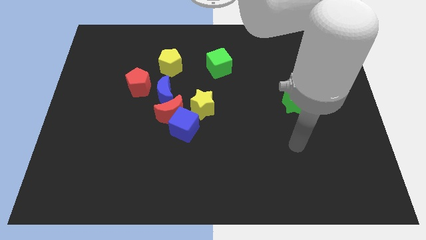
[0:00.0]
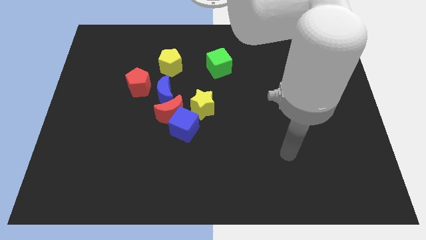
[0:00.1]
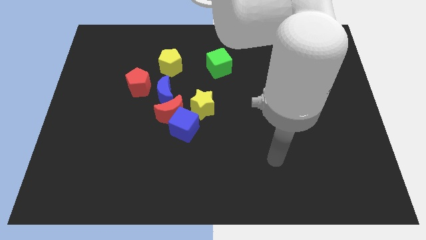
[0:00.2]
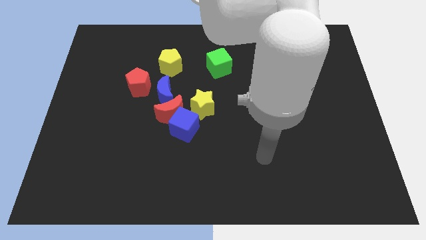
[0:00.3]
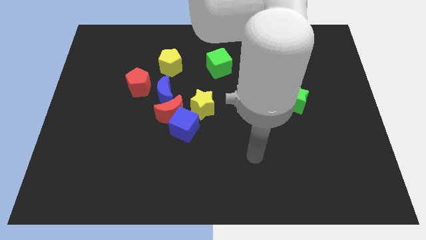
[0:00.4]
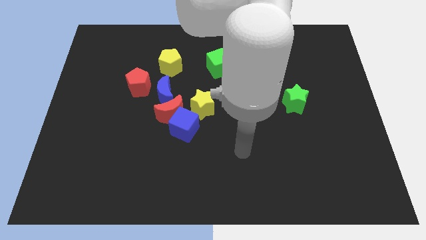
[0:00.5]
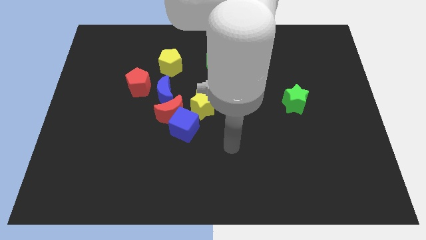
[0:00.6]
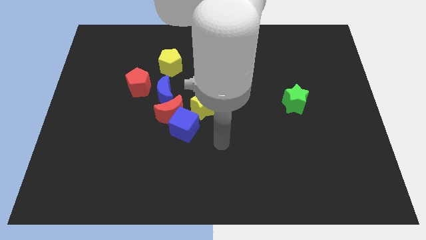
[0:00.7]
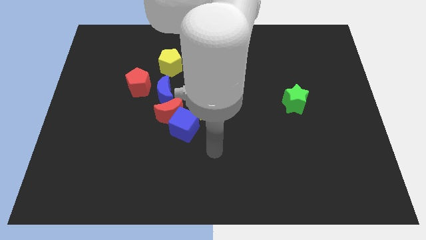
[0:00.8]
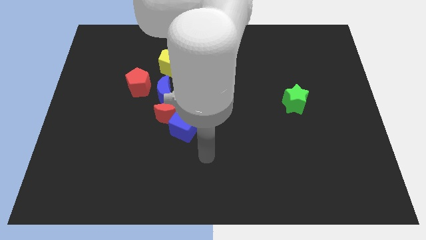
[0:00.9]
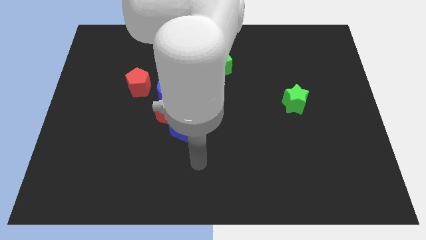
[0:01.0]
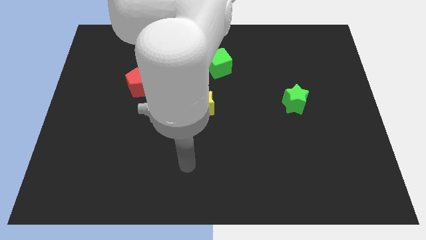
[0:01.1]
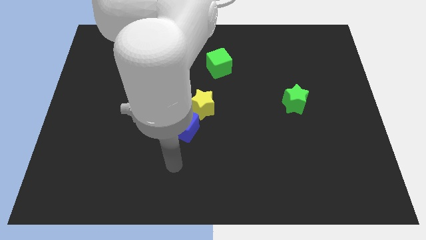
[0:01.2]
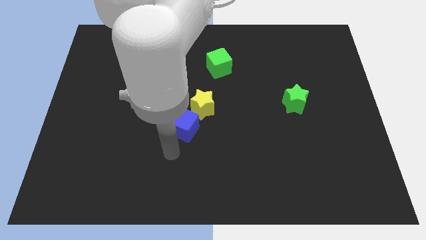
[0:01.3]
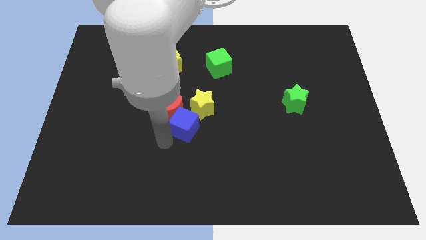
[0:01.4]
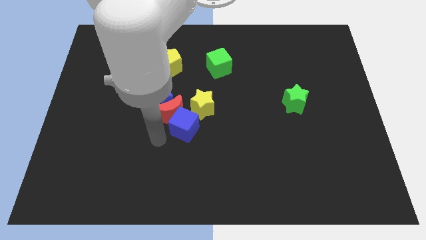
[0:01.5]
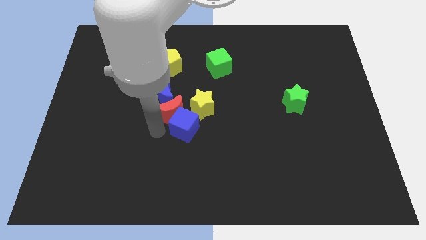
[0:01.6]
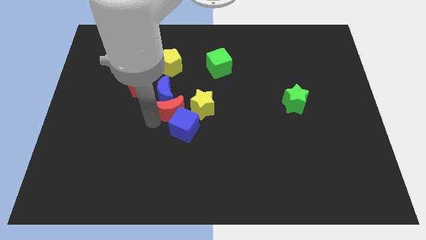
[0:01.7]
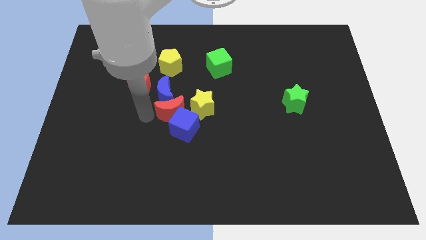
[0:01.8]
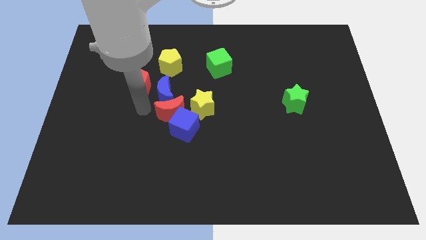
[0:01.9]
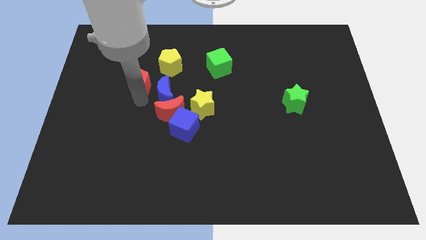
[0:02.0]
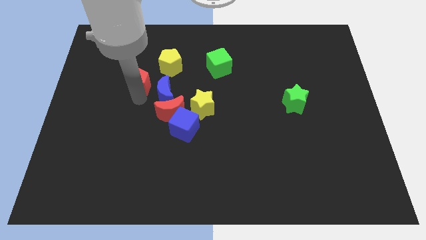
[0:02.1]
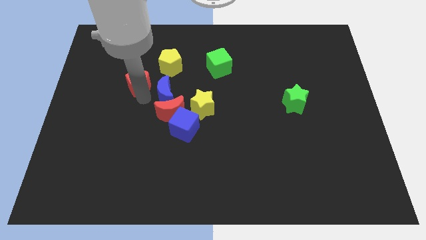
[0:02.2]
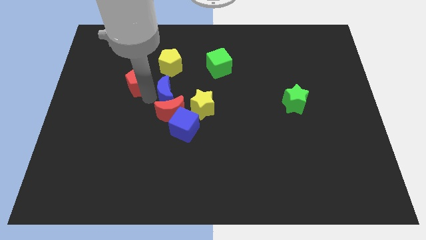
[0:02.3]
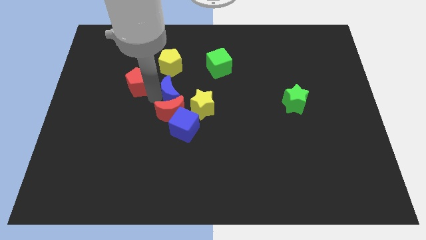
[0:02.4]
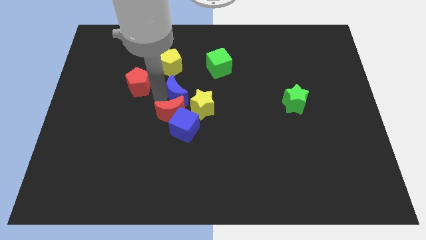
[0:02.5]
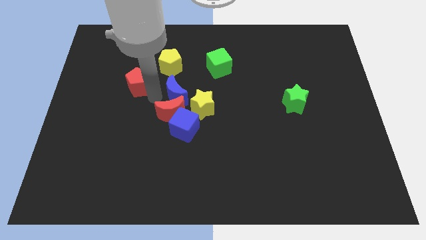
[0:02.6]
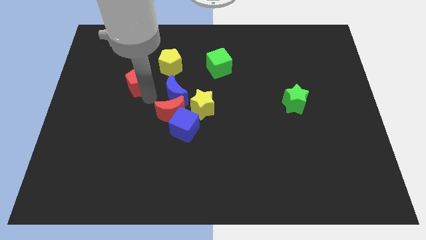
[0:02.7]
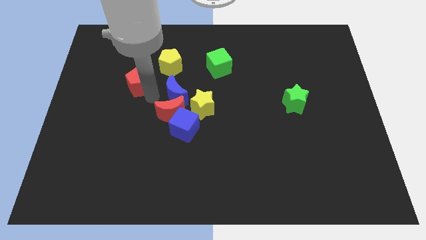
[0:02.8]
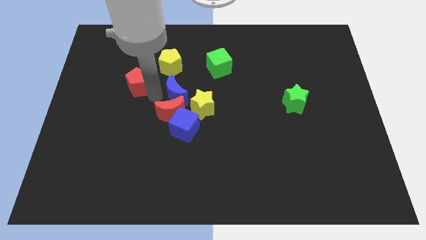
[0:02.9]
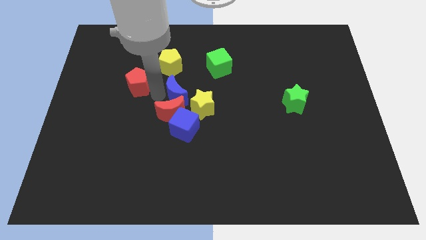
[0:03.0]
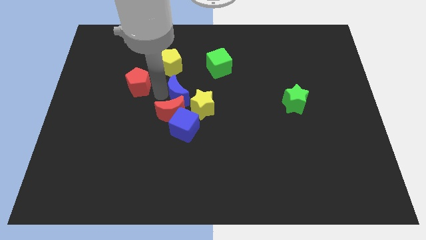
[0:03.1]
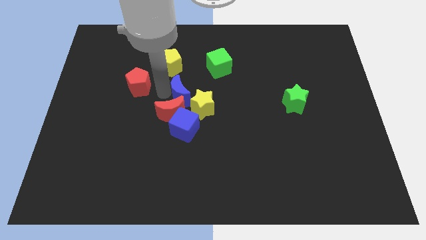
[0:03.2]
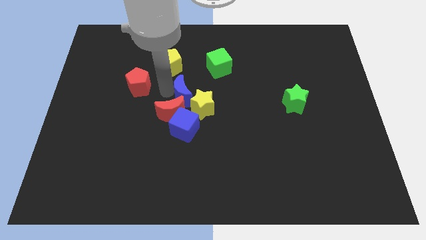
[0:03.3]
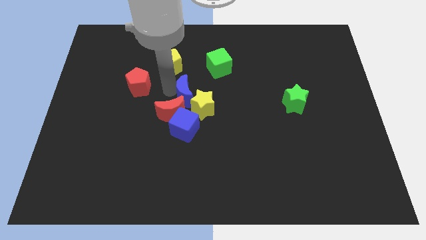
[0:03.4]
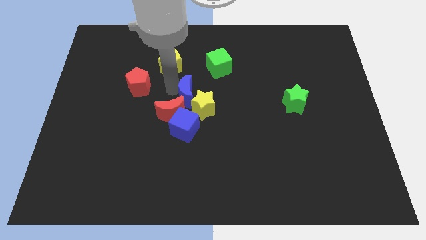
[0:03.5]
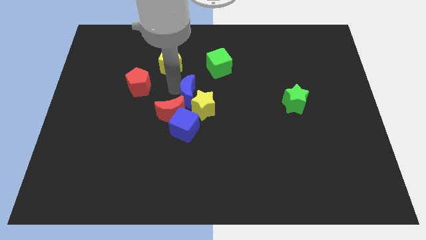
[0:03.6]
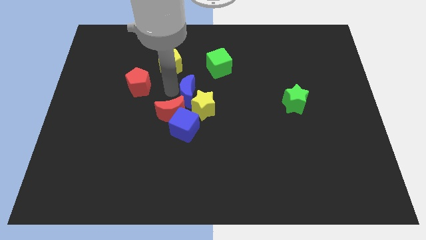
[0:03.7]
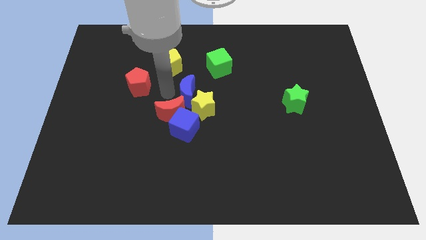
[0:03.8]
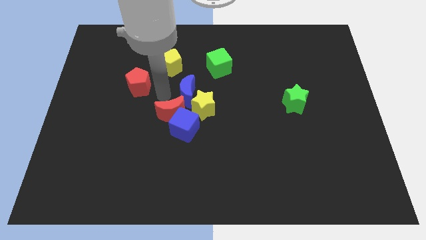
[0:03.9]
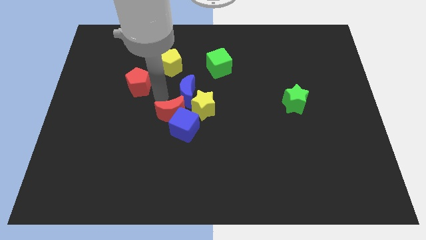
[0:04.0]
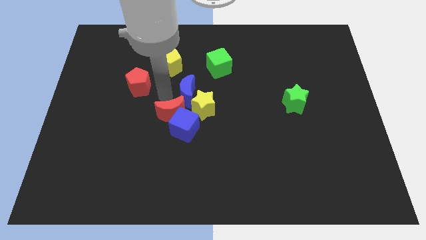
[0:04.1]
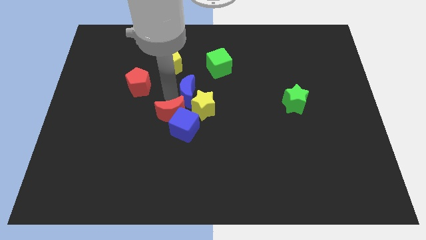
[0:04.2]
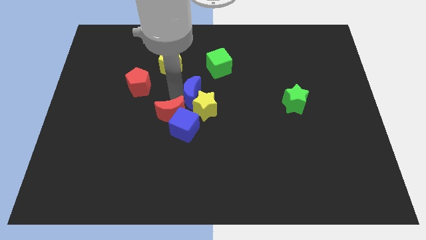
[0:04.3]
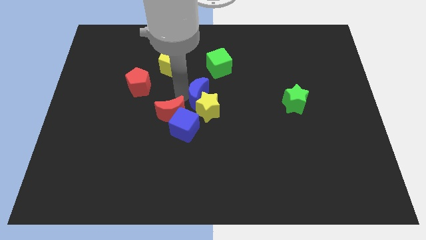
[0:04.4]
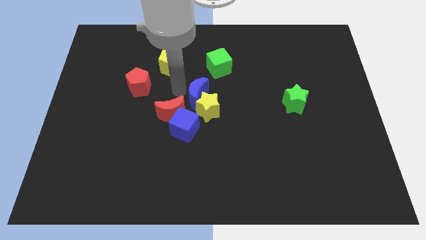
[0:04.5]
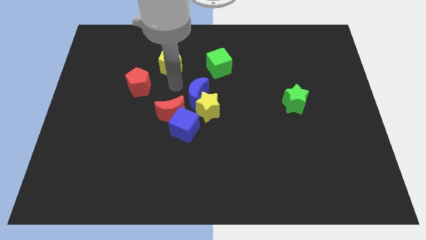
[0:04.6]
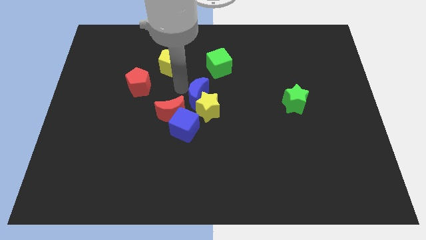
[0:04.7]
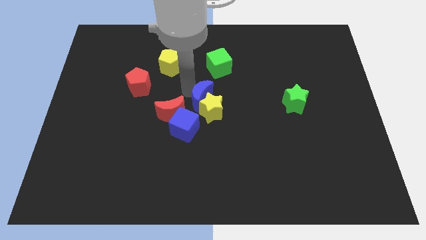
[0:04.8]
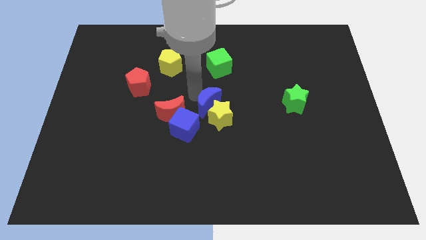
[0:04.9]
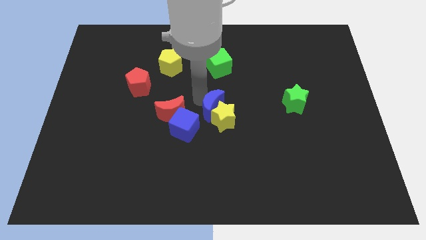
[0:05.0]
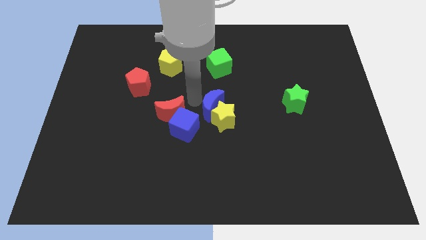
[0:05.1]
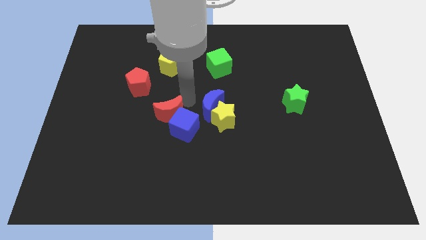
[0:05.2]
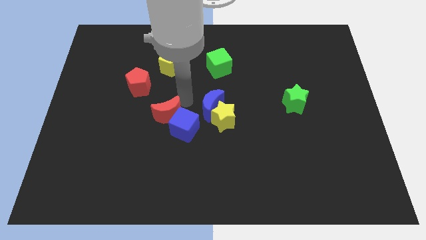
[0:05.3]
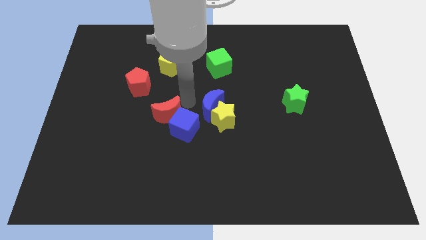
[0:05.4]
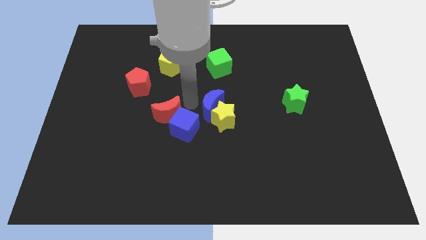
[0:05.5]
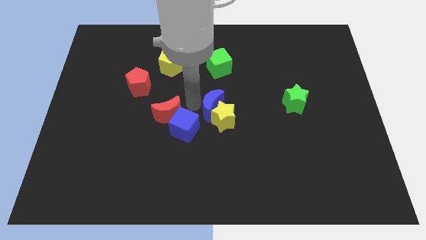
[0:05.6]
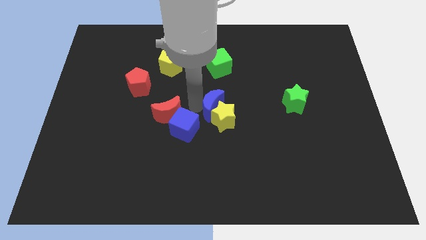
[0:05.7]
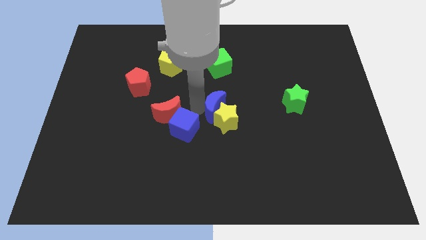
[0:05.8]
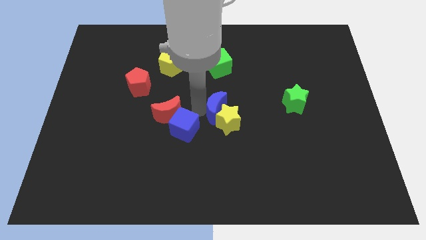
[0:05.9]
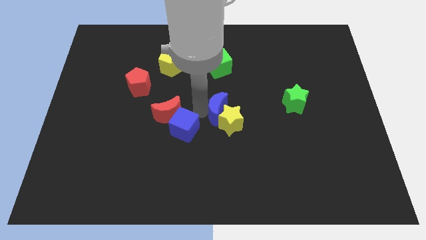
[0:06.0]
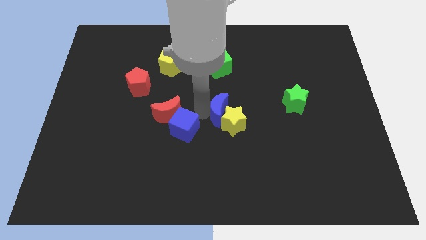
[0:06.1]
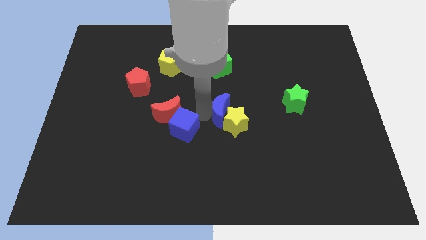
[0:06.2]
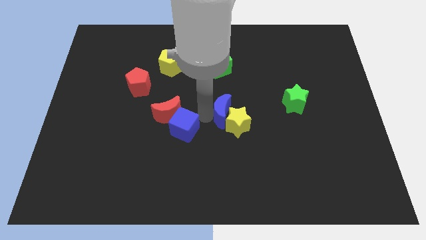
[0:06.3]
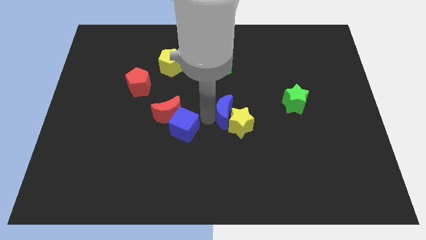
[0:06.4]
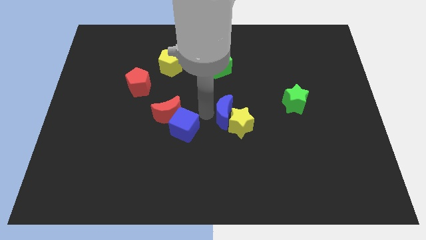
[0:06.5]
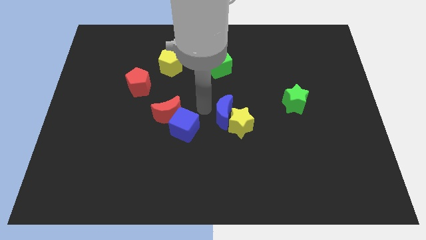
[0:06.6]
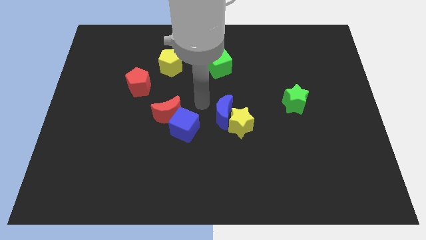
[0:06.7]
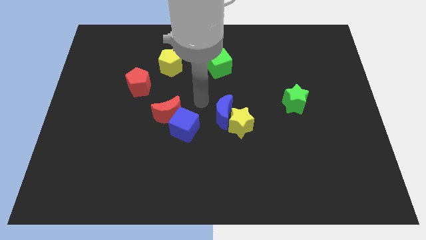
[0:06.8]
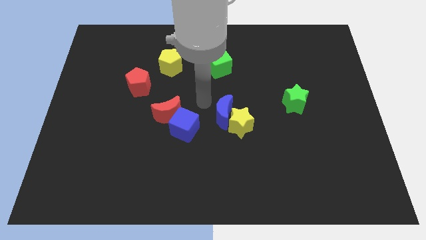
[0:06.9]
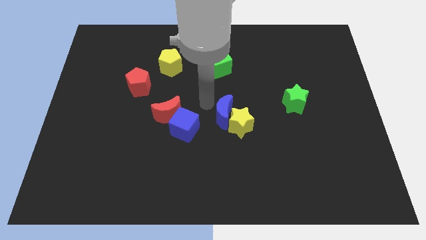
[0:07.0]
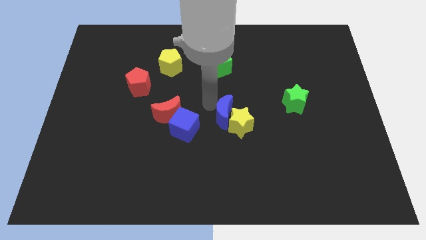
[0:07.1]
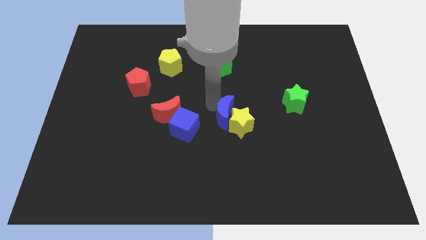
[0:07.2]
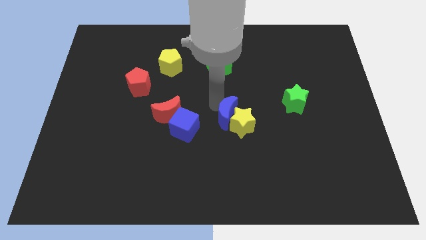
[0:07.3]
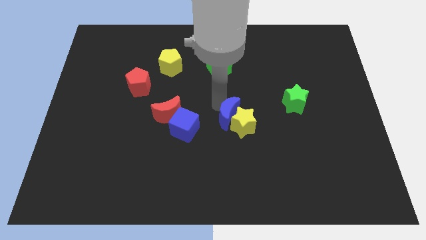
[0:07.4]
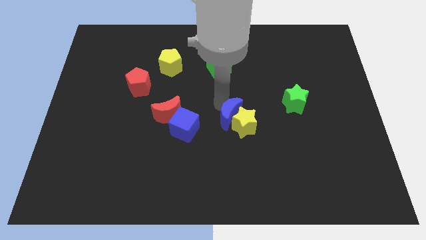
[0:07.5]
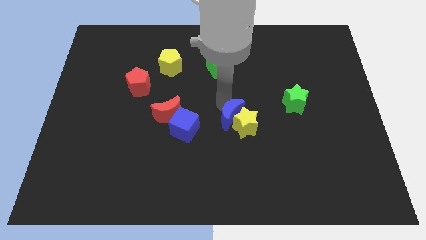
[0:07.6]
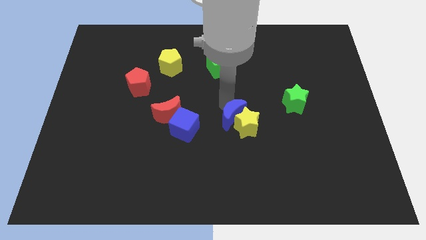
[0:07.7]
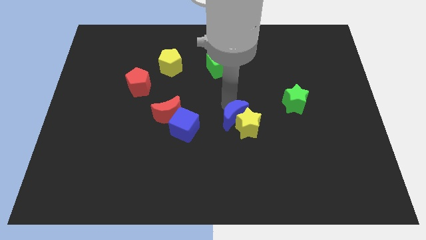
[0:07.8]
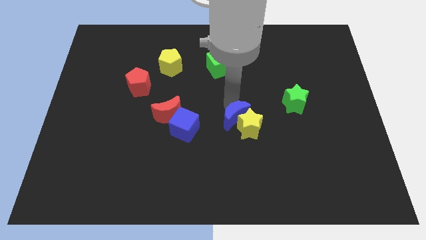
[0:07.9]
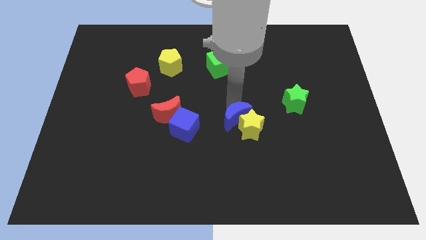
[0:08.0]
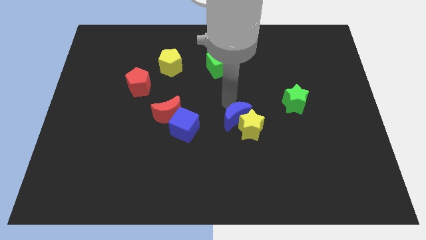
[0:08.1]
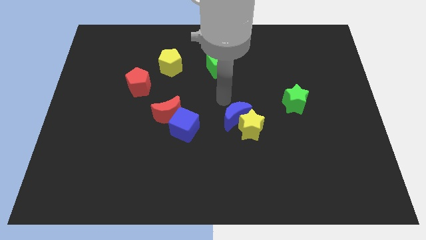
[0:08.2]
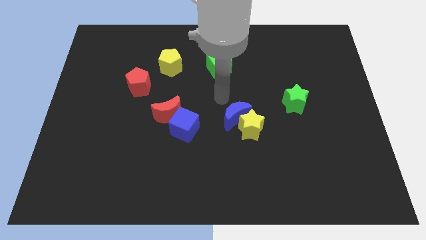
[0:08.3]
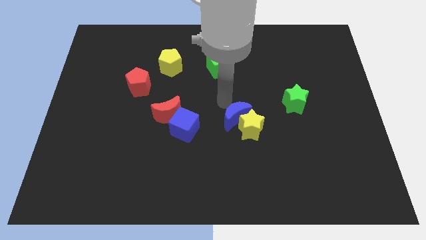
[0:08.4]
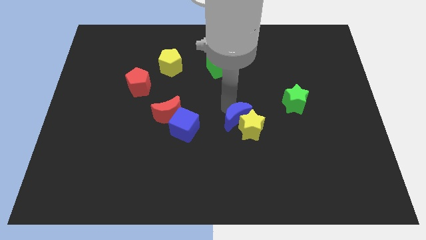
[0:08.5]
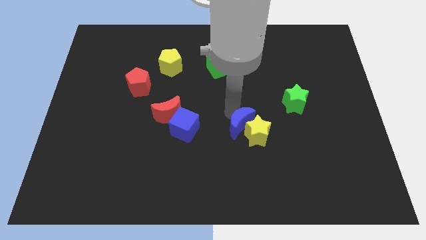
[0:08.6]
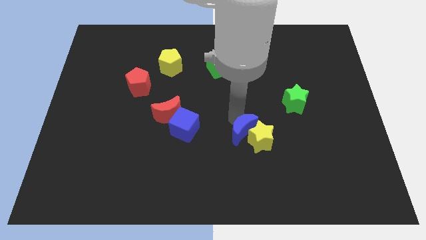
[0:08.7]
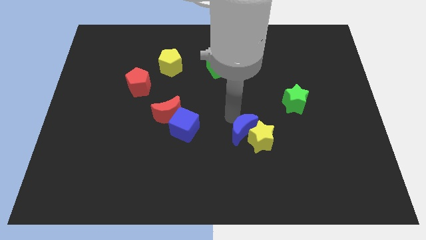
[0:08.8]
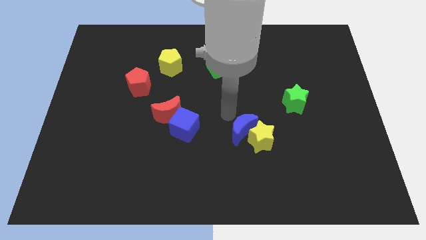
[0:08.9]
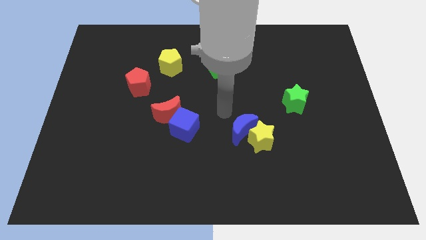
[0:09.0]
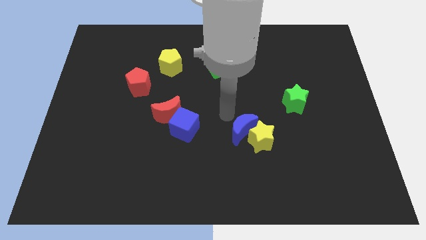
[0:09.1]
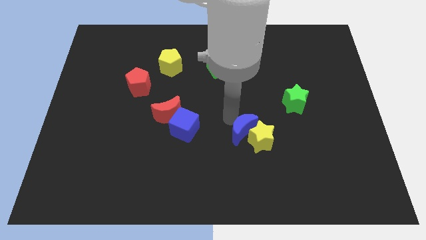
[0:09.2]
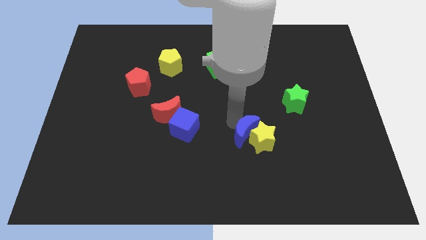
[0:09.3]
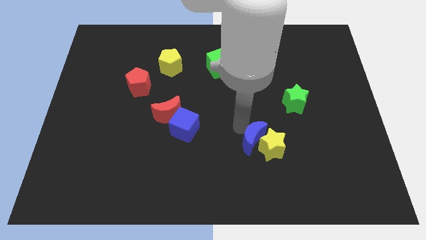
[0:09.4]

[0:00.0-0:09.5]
push the blue moon down and then to the right
